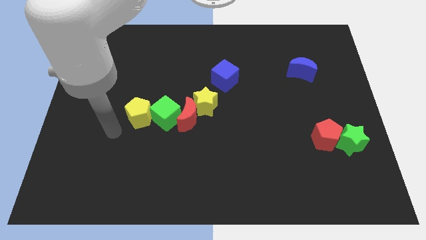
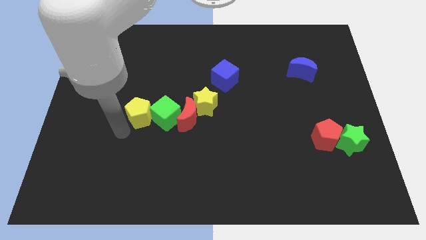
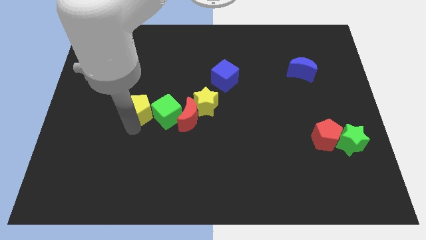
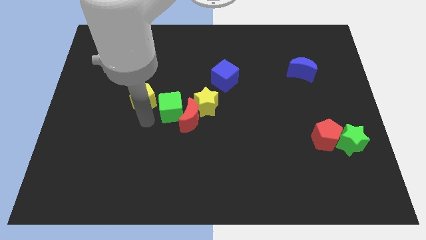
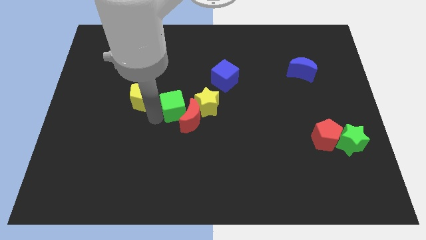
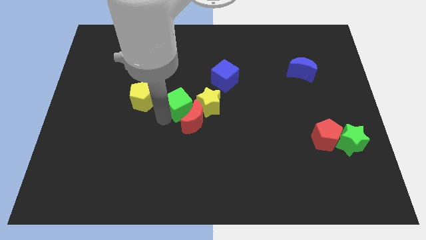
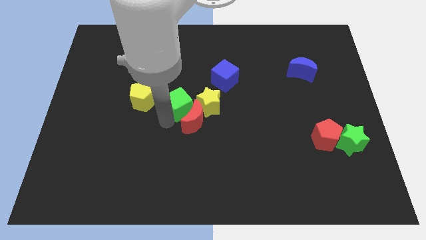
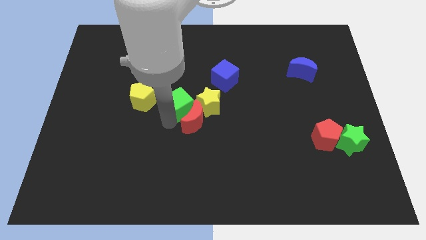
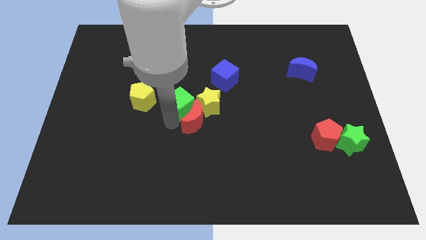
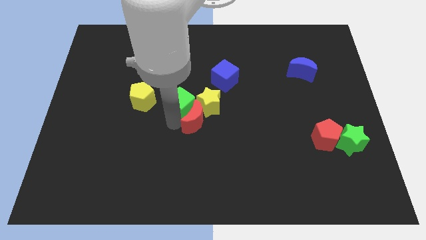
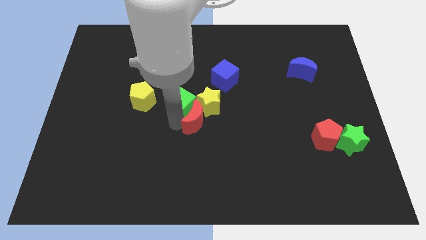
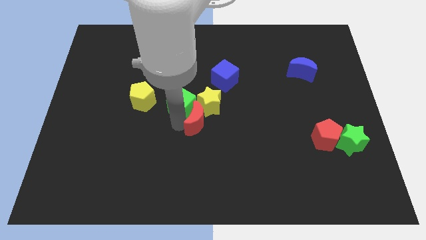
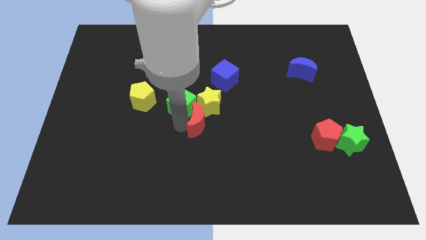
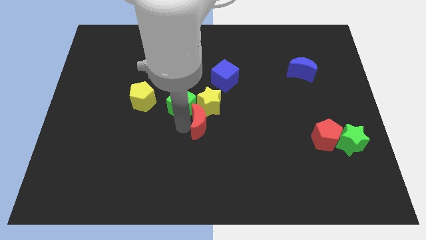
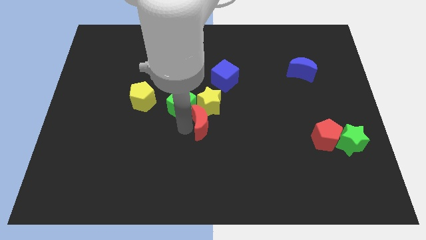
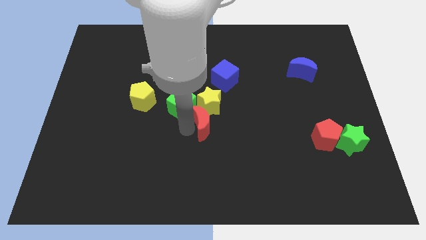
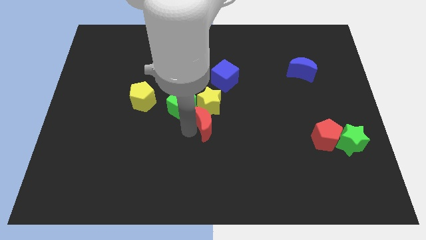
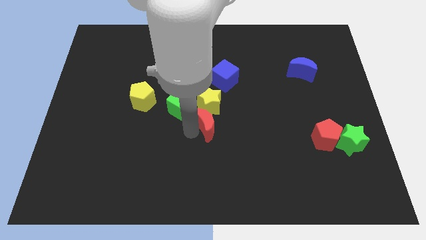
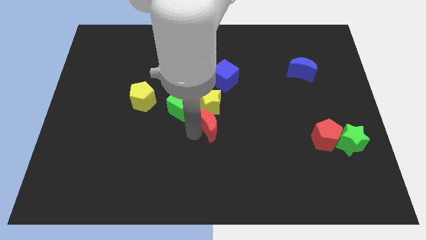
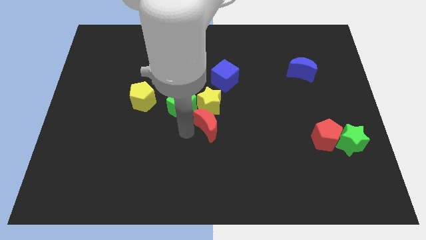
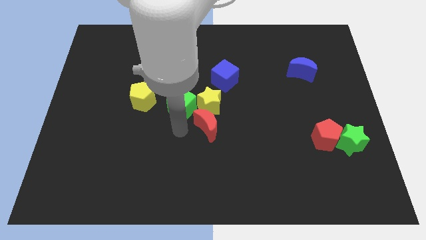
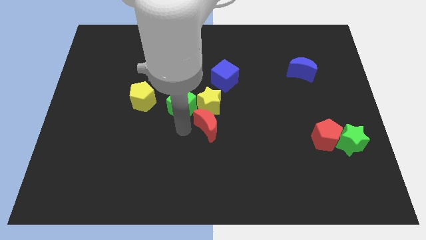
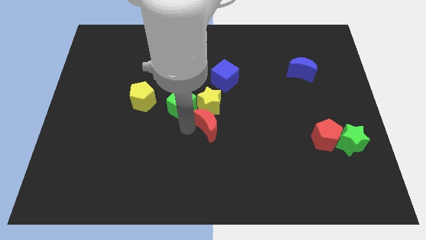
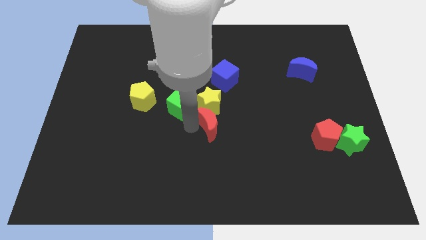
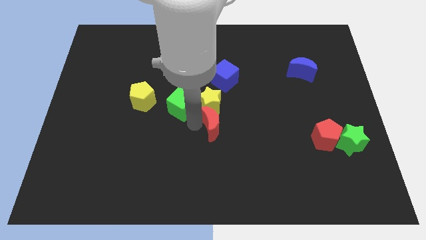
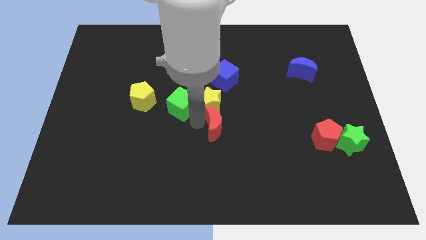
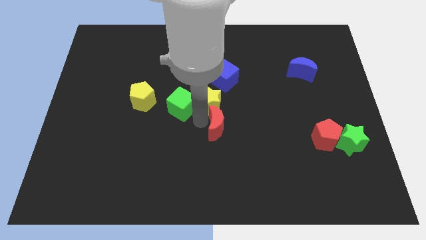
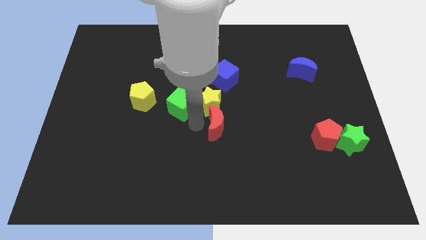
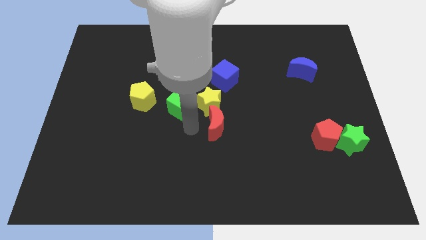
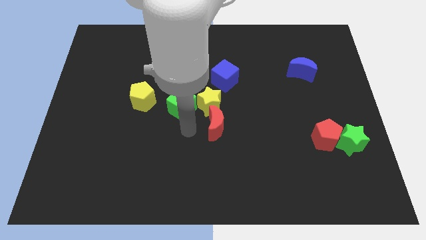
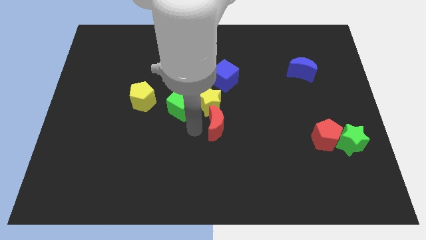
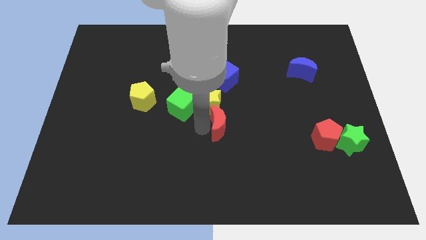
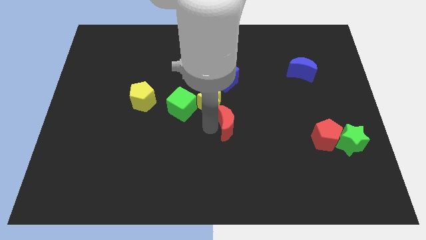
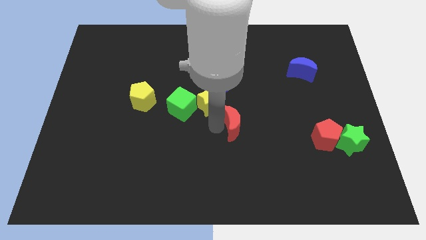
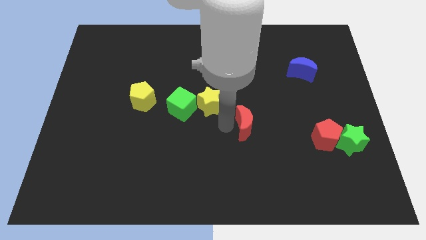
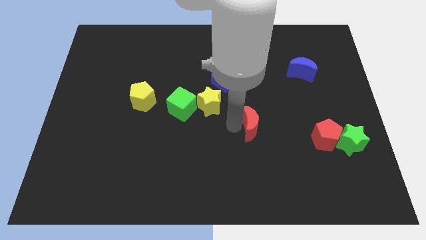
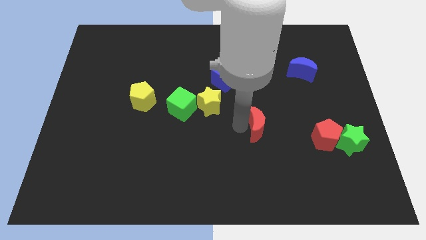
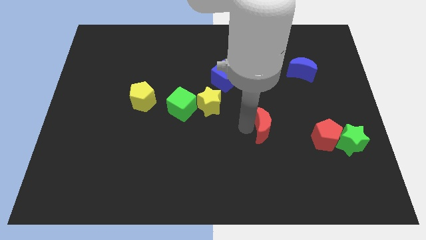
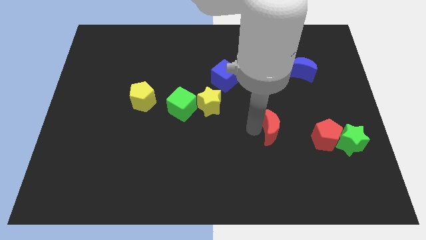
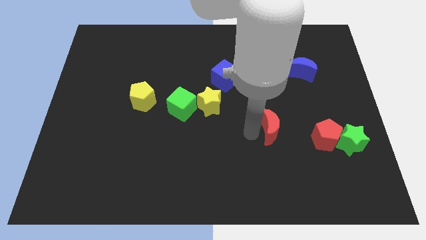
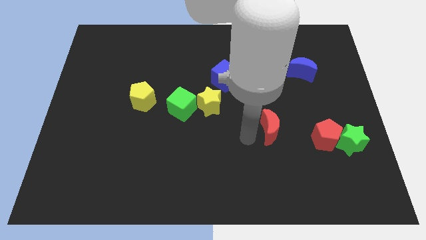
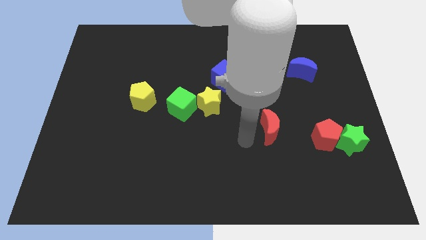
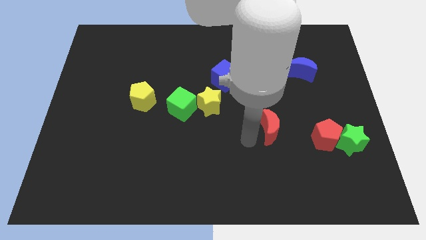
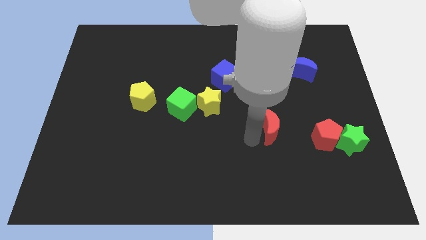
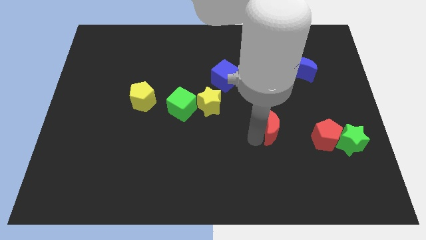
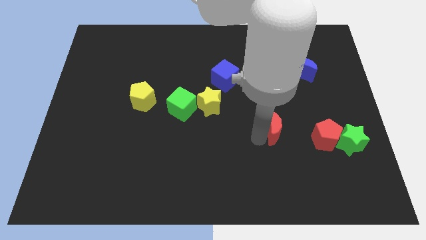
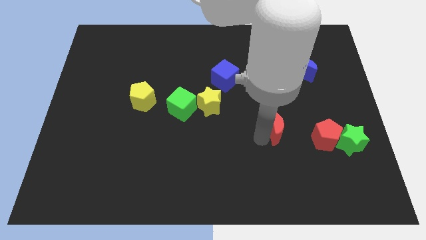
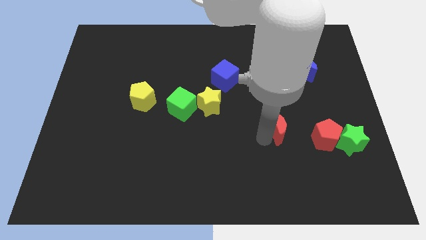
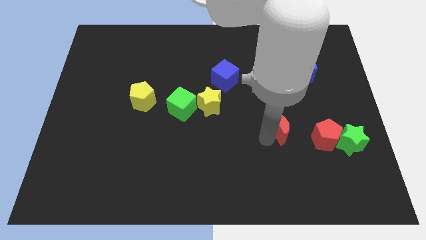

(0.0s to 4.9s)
push the red moon to the right

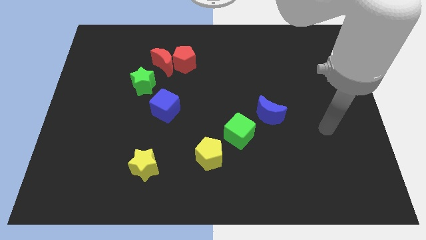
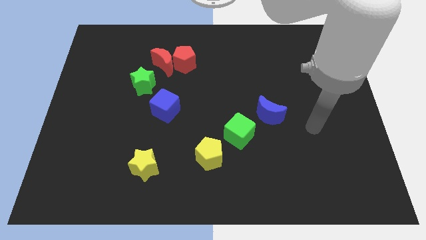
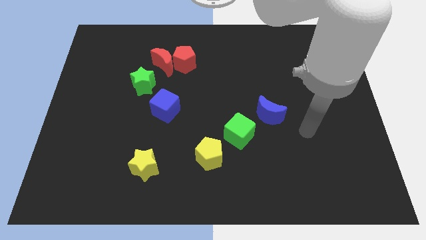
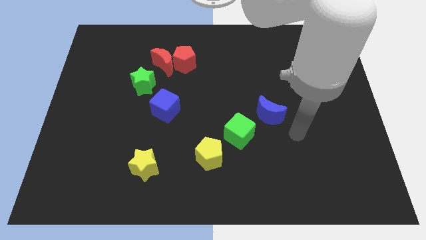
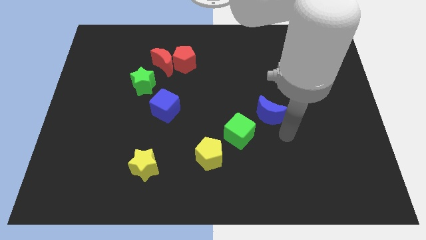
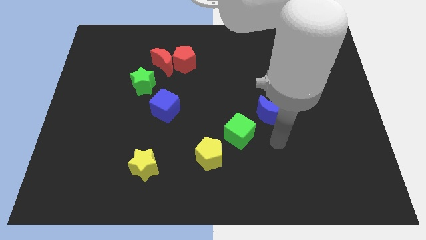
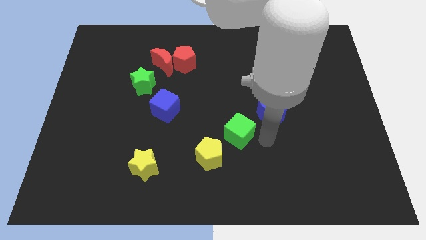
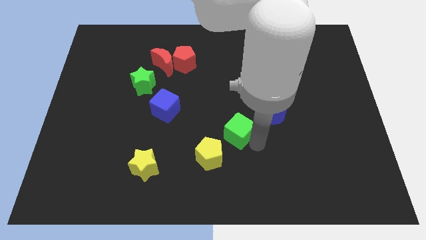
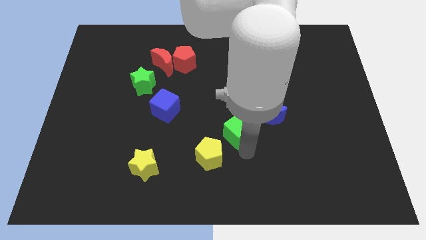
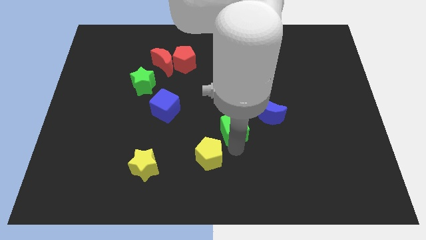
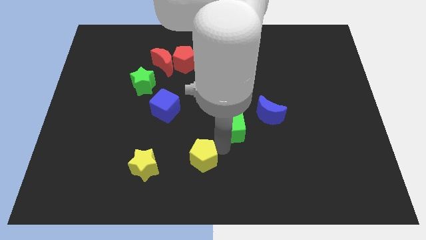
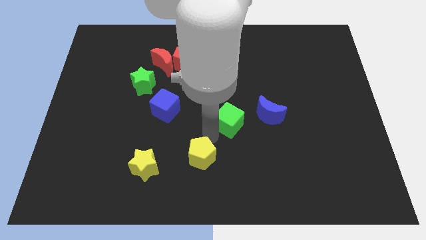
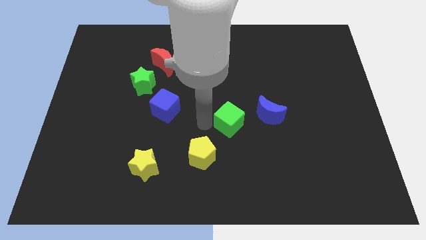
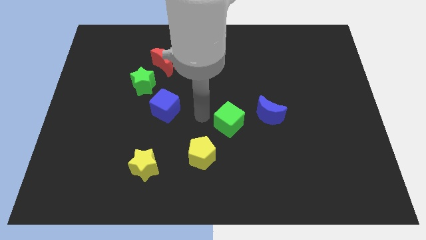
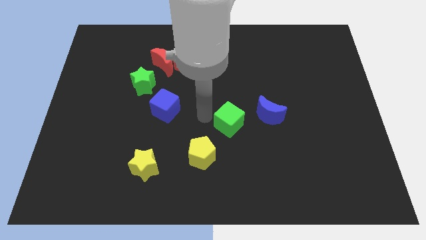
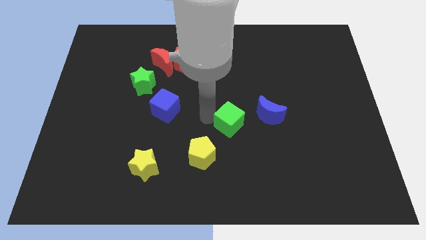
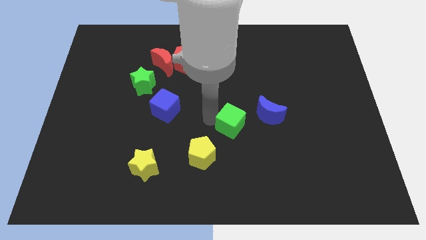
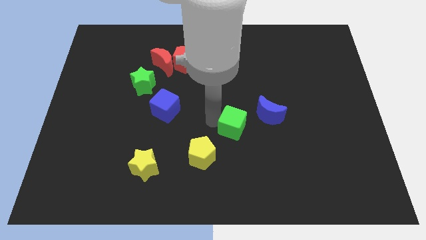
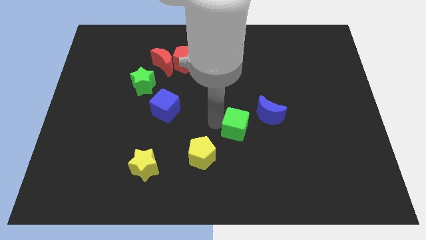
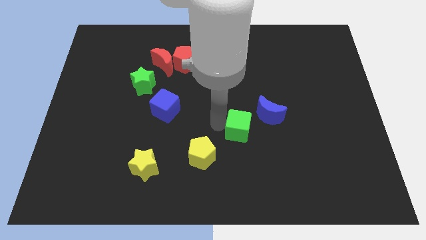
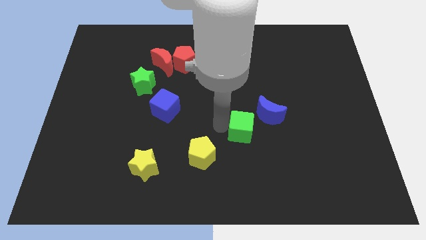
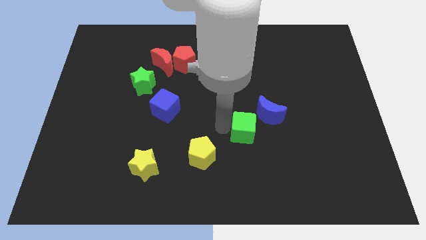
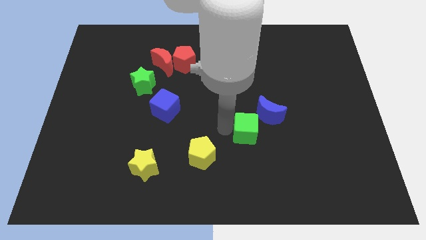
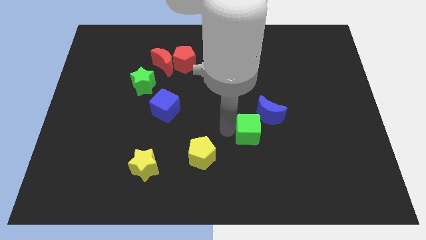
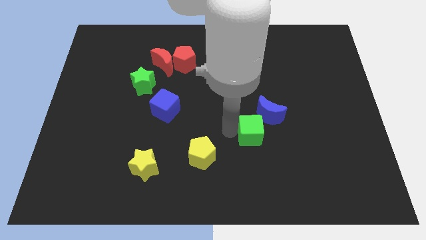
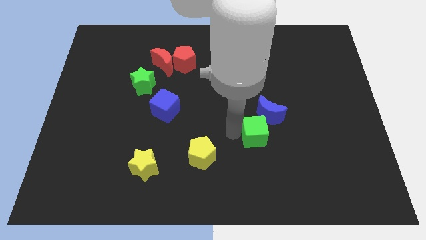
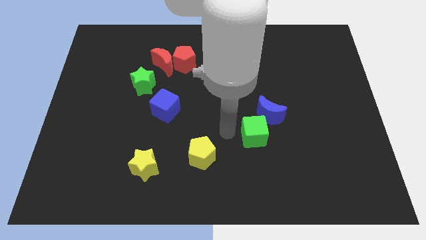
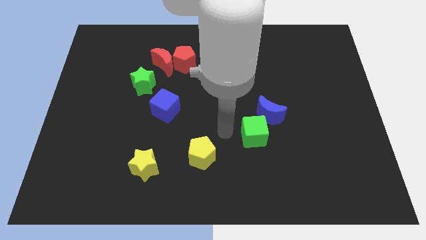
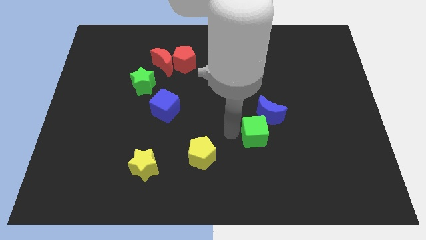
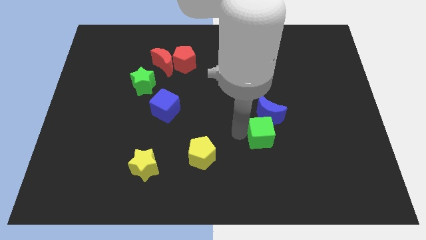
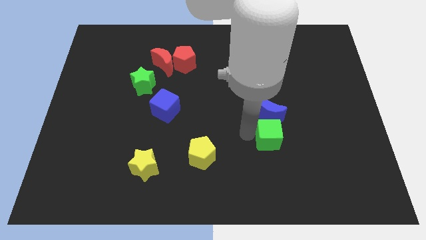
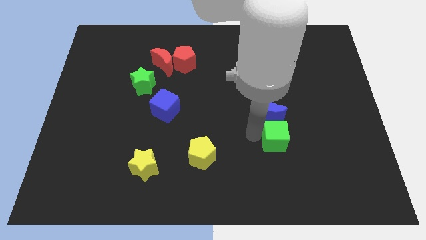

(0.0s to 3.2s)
slightly push the green cube right

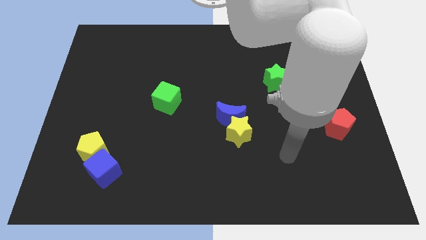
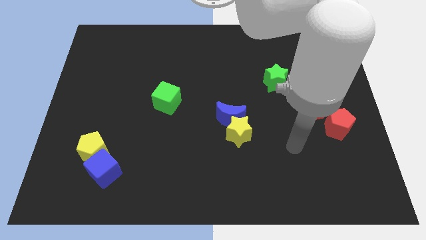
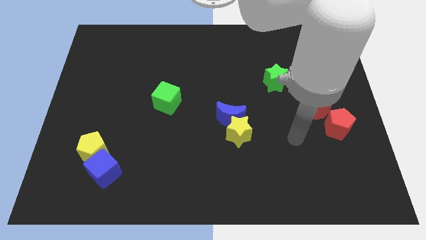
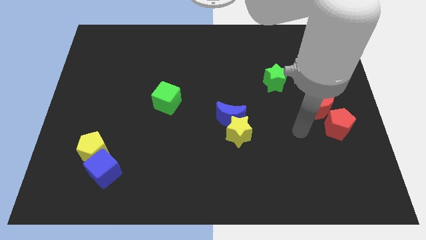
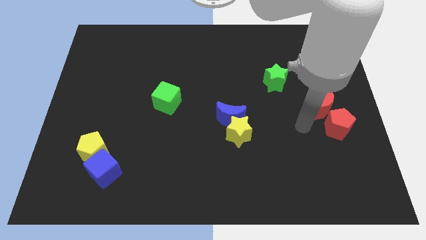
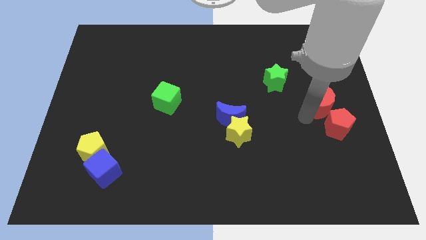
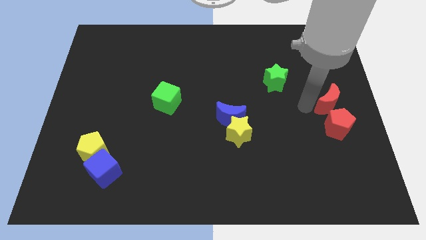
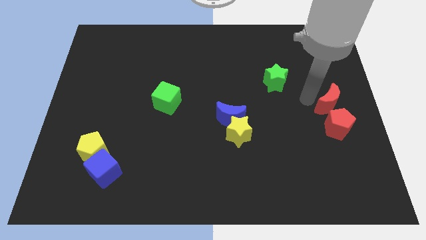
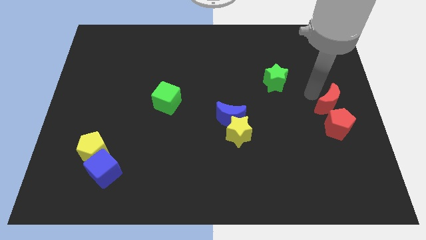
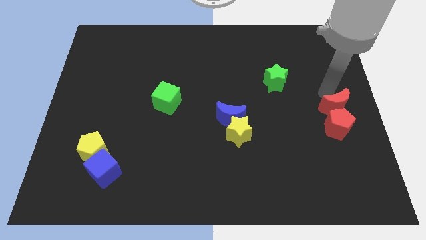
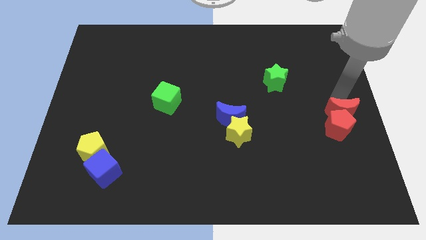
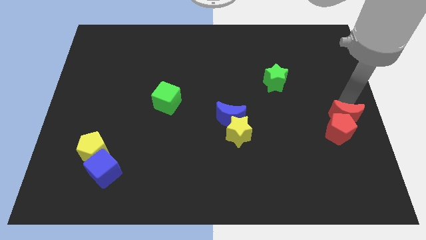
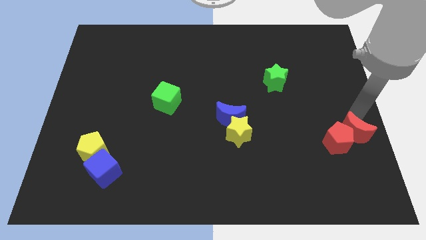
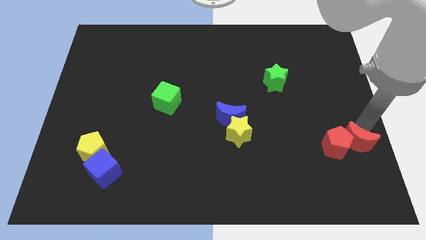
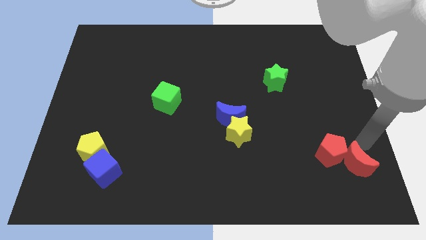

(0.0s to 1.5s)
push the red pentagon a little bit down and then to the left
